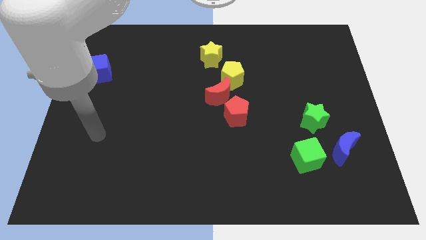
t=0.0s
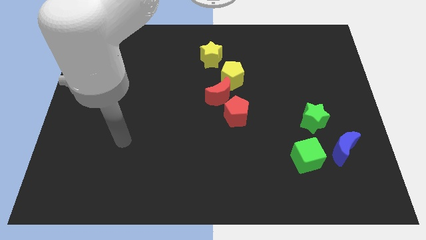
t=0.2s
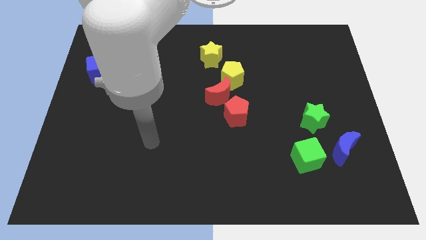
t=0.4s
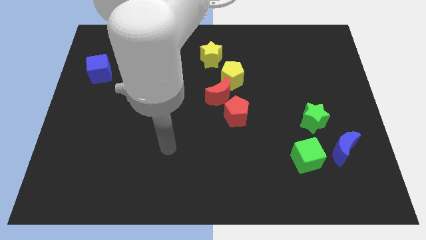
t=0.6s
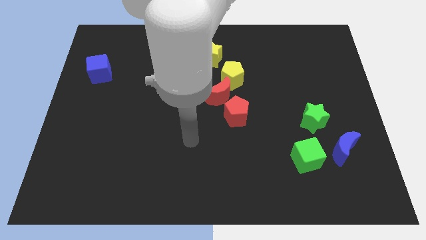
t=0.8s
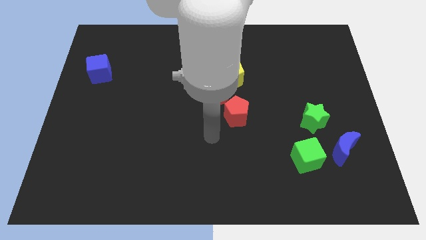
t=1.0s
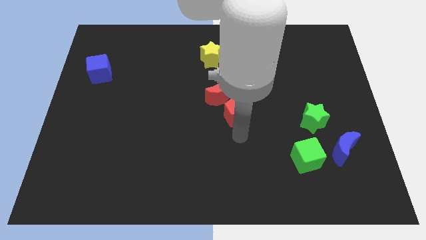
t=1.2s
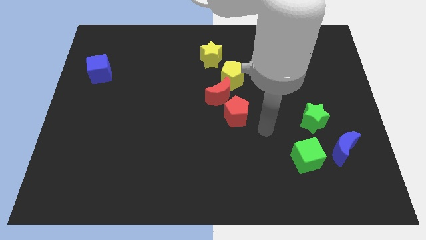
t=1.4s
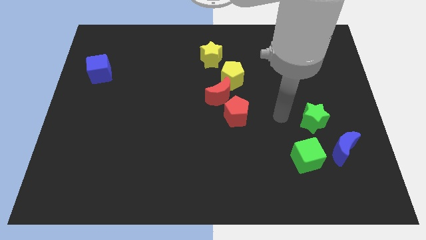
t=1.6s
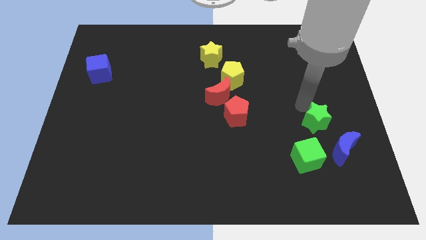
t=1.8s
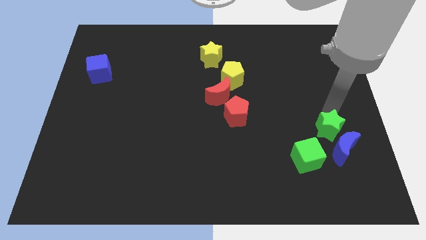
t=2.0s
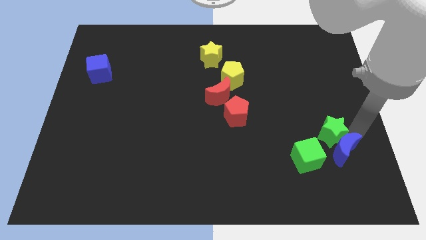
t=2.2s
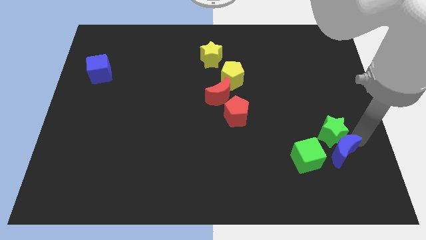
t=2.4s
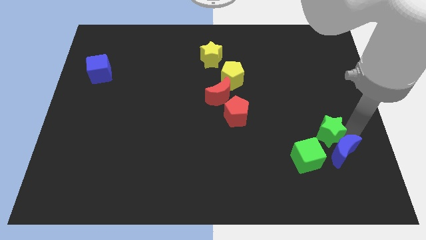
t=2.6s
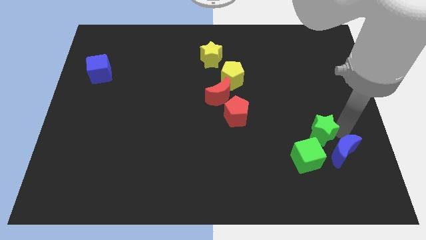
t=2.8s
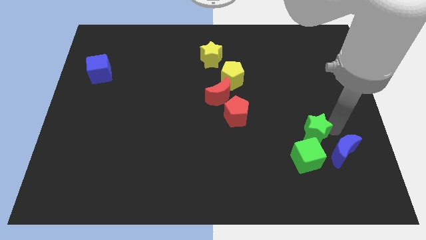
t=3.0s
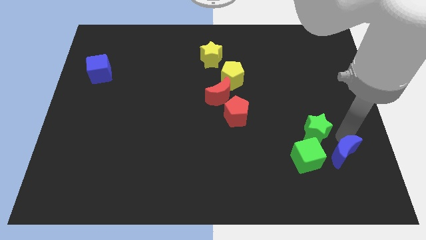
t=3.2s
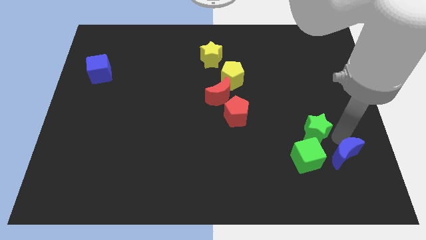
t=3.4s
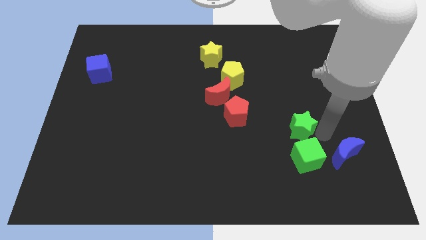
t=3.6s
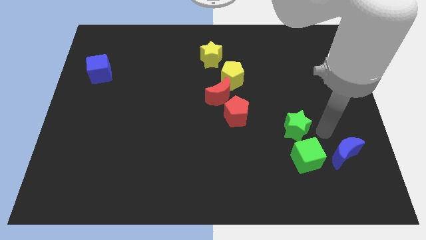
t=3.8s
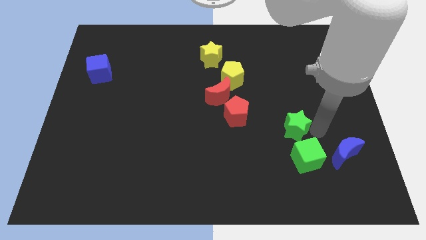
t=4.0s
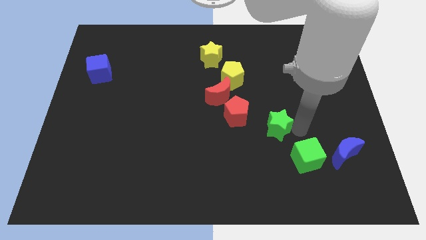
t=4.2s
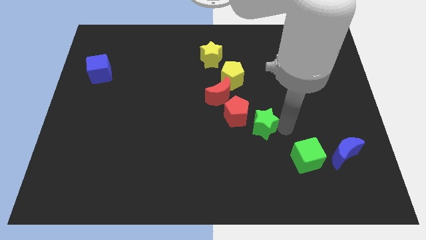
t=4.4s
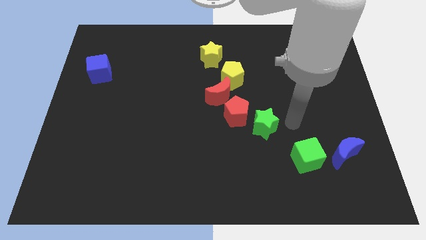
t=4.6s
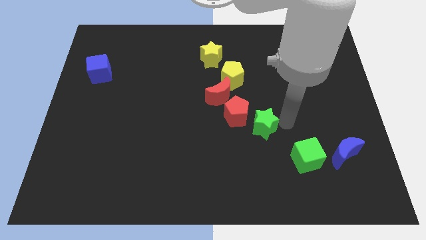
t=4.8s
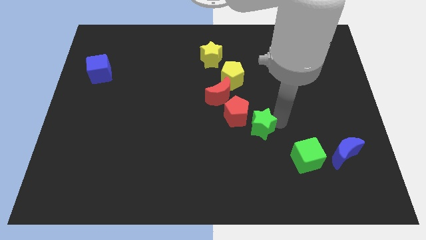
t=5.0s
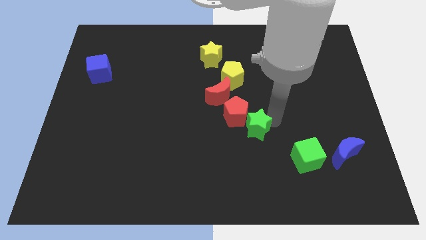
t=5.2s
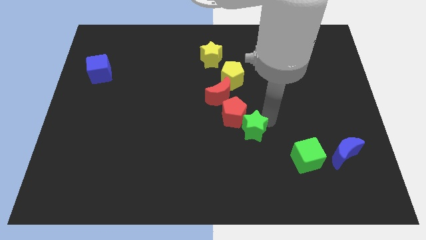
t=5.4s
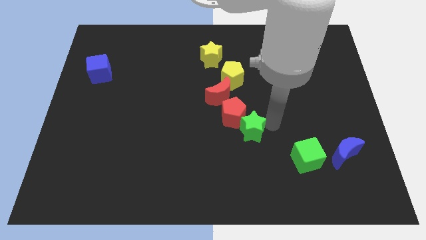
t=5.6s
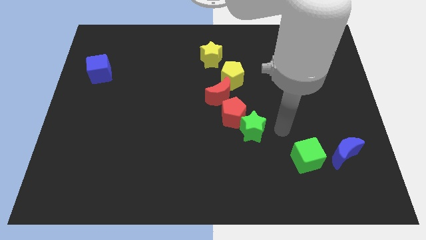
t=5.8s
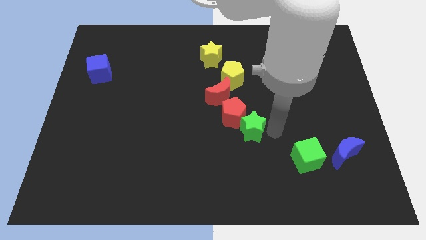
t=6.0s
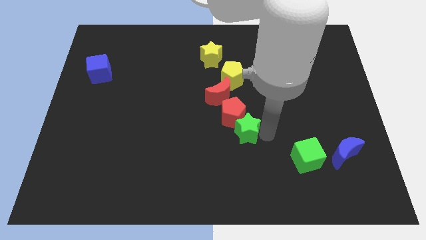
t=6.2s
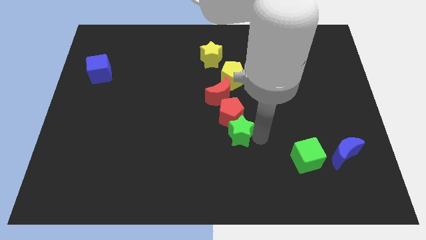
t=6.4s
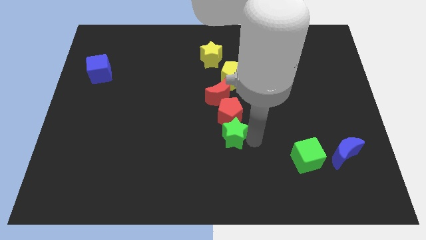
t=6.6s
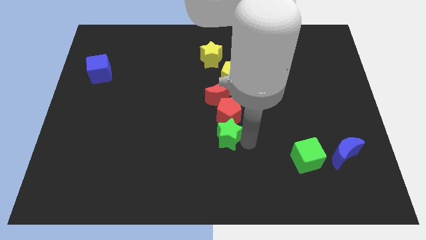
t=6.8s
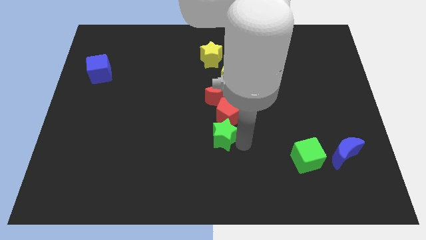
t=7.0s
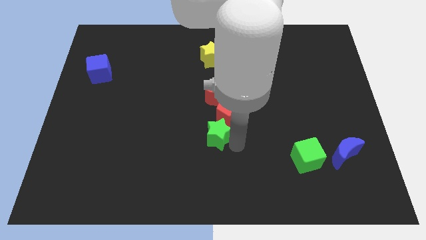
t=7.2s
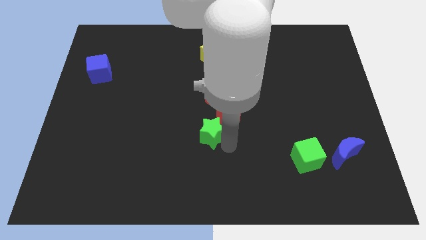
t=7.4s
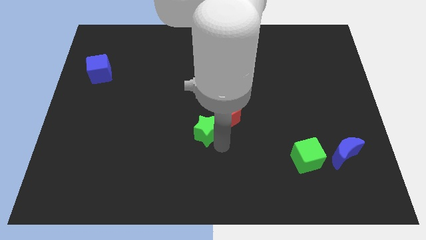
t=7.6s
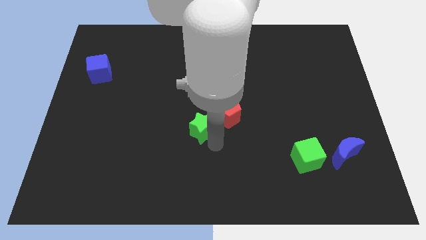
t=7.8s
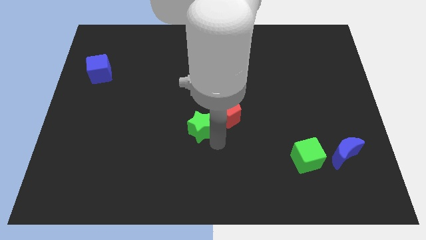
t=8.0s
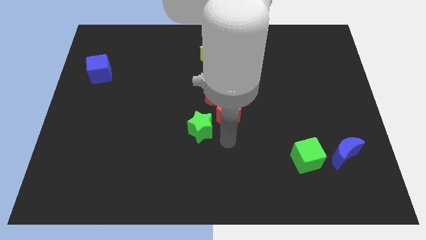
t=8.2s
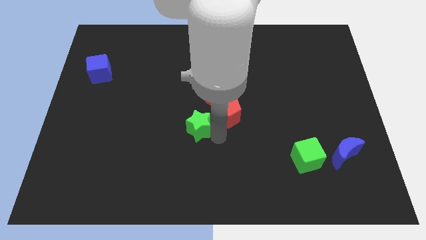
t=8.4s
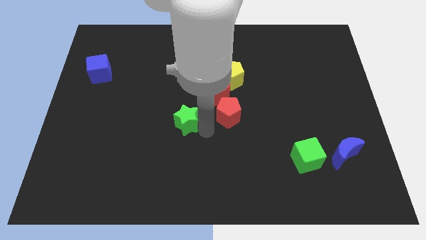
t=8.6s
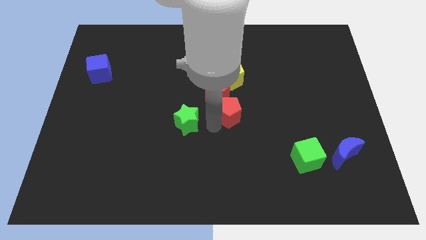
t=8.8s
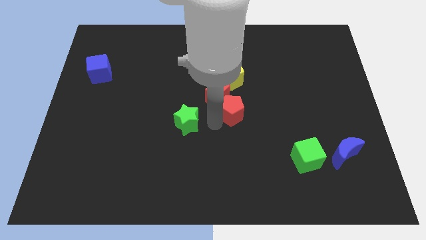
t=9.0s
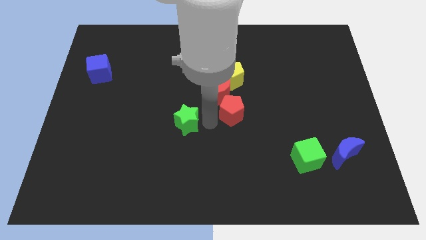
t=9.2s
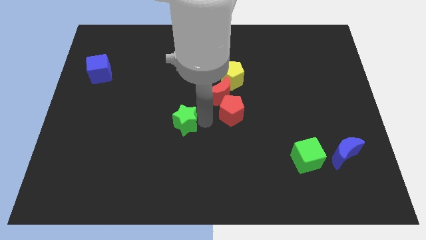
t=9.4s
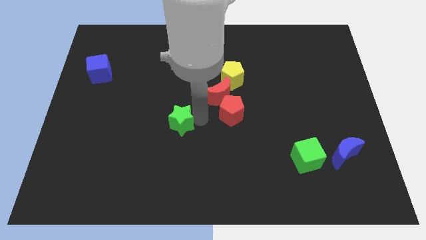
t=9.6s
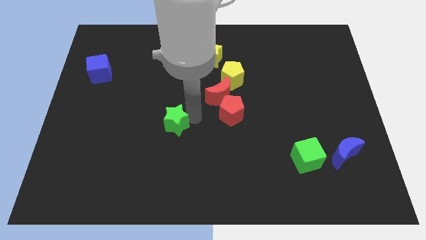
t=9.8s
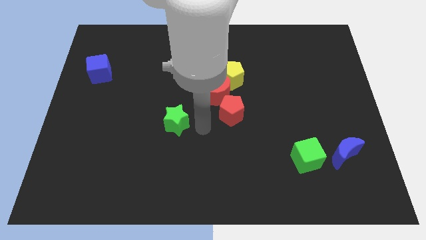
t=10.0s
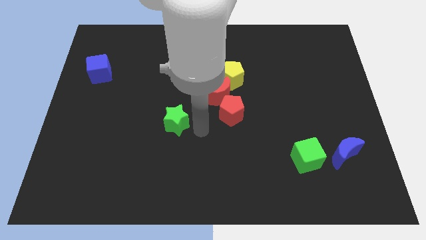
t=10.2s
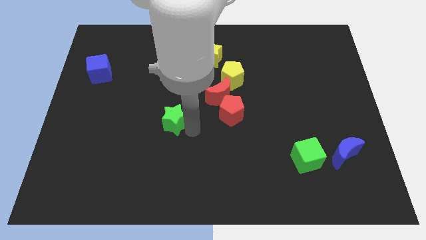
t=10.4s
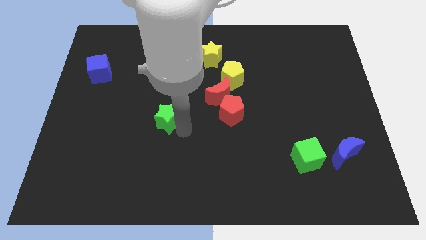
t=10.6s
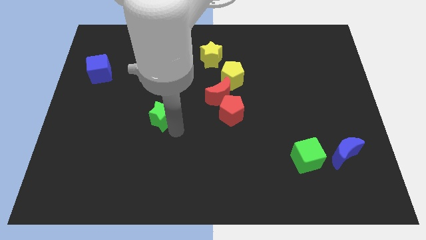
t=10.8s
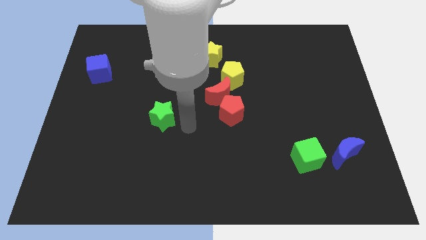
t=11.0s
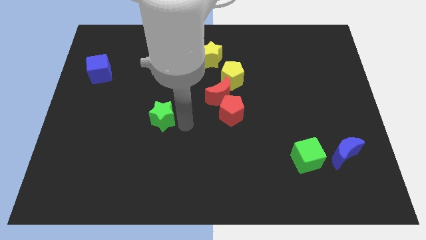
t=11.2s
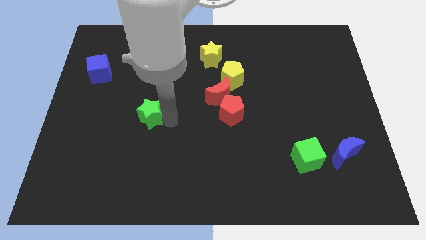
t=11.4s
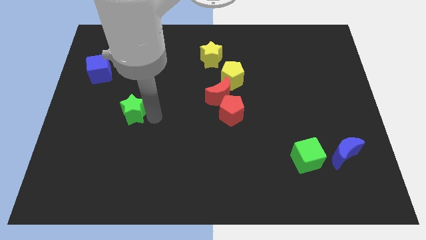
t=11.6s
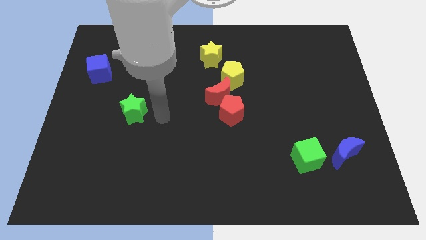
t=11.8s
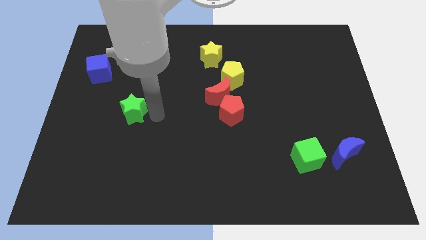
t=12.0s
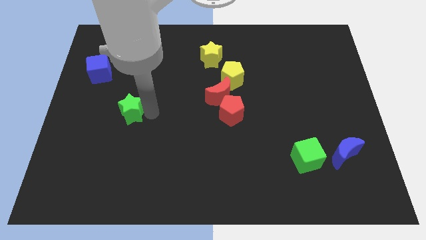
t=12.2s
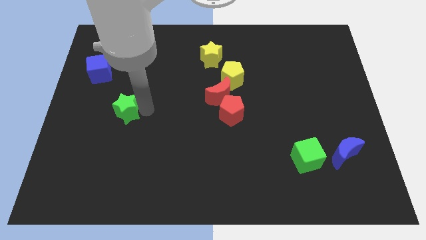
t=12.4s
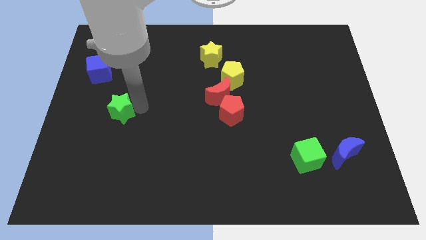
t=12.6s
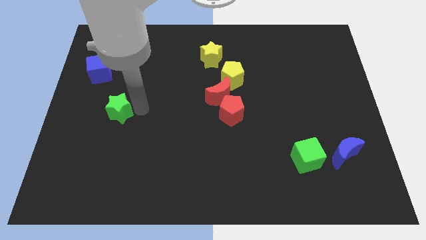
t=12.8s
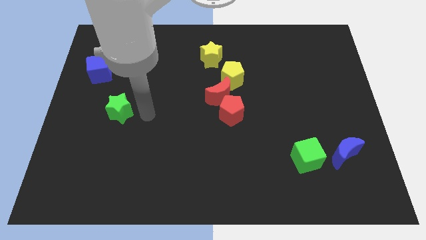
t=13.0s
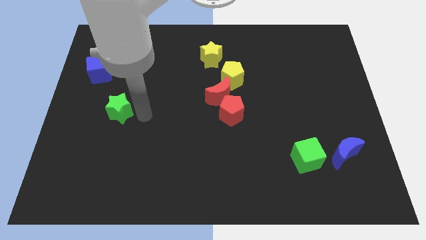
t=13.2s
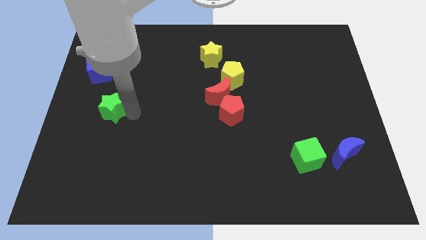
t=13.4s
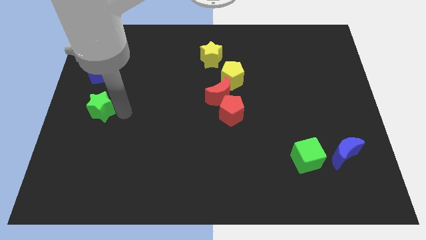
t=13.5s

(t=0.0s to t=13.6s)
slide the green star to the left side

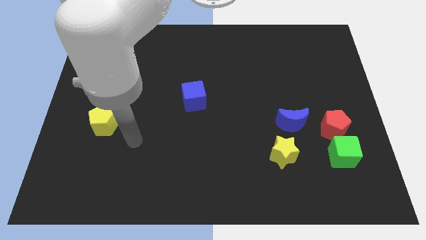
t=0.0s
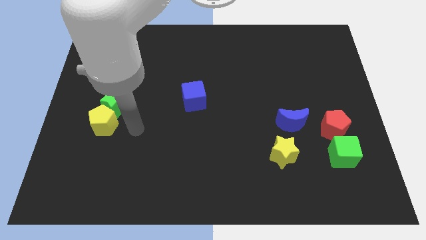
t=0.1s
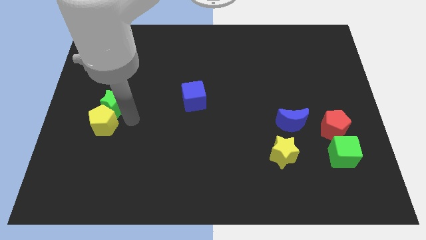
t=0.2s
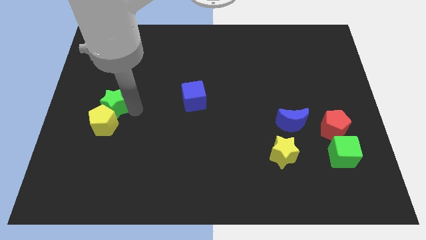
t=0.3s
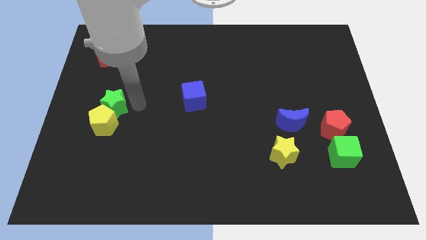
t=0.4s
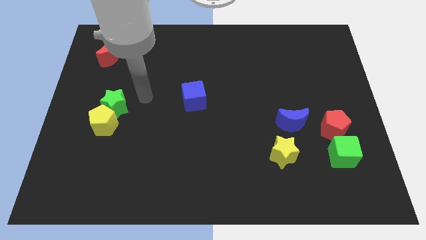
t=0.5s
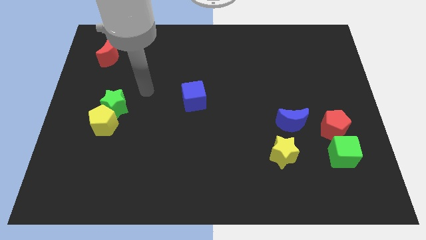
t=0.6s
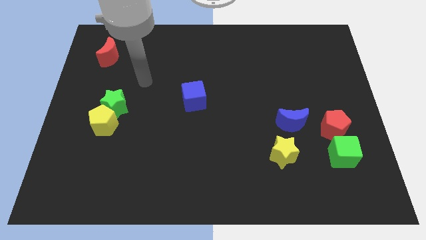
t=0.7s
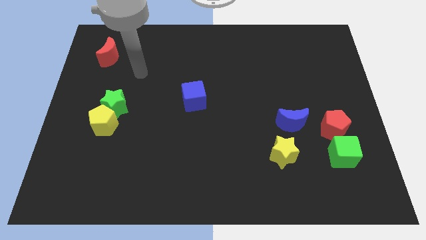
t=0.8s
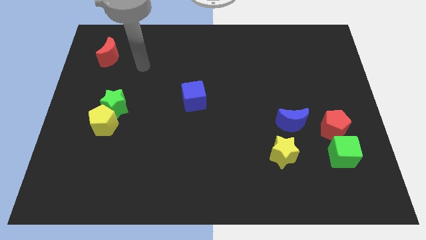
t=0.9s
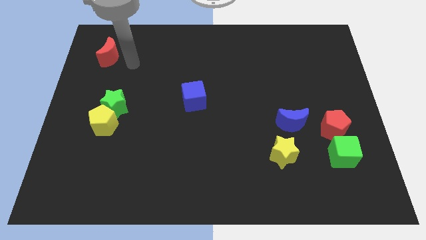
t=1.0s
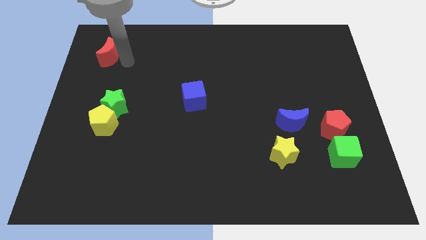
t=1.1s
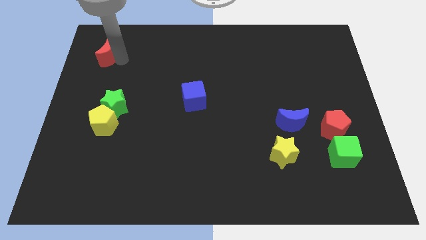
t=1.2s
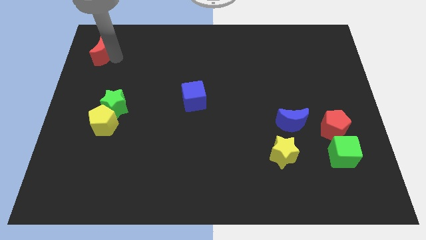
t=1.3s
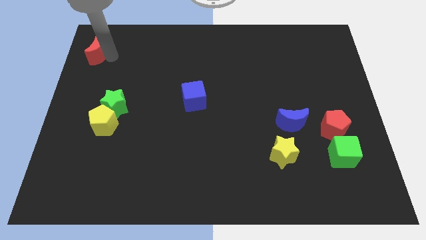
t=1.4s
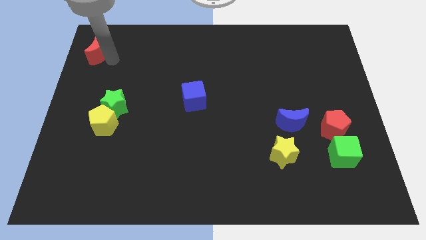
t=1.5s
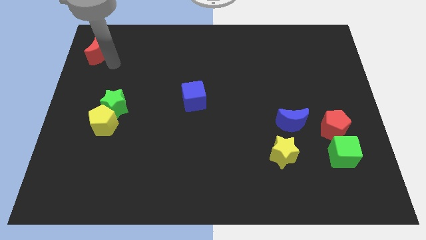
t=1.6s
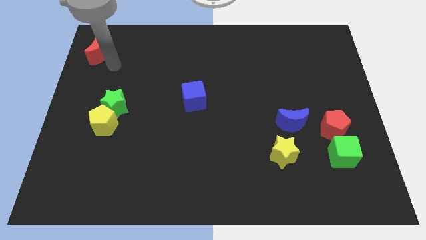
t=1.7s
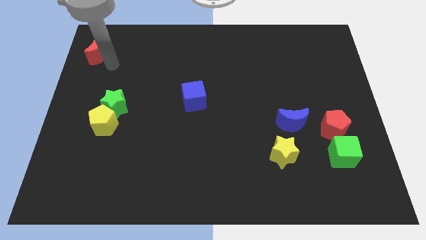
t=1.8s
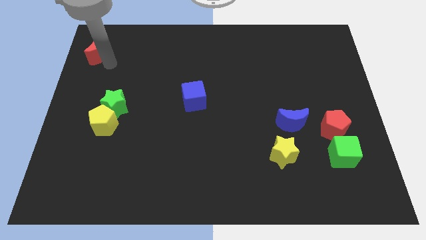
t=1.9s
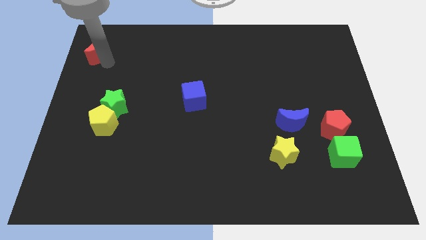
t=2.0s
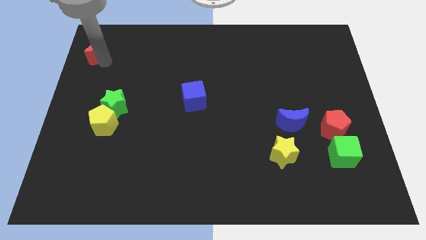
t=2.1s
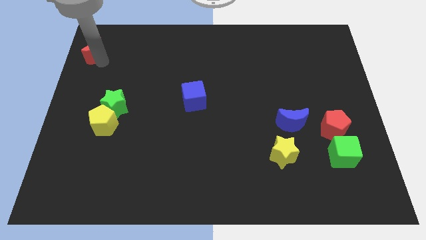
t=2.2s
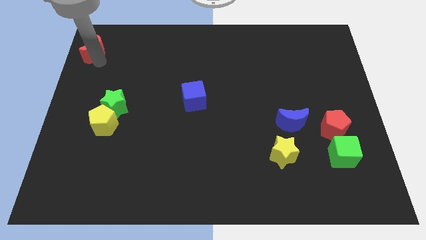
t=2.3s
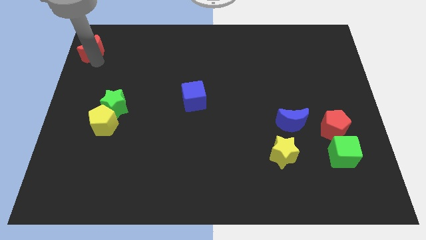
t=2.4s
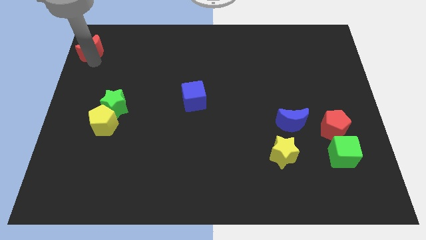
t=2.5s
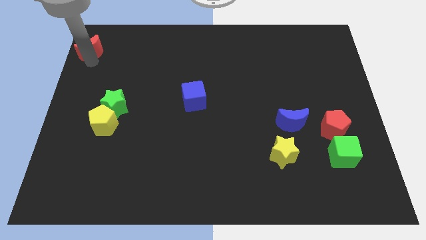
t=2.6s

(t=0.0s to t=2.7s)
push the red moon to the upper left corner
